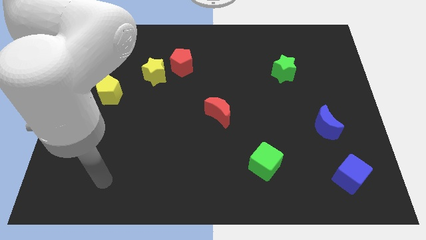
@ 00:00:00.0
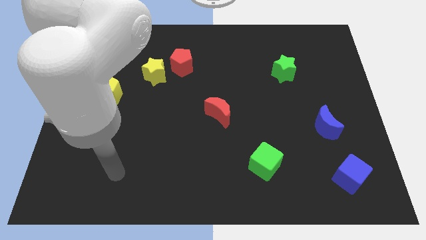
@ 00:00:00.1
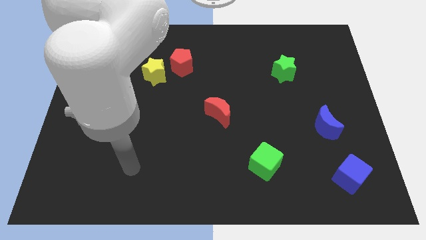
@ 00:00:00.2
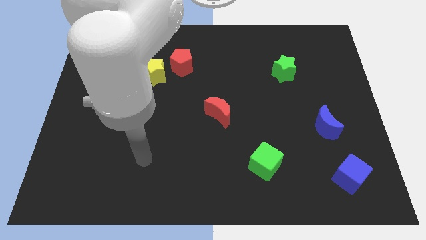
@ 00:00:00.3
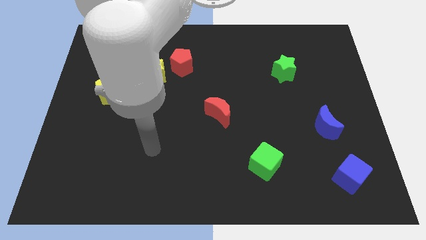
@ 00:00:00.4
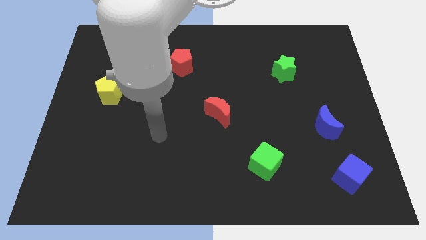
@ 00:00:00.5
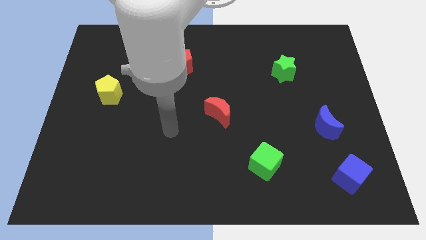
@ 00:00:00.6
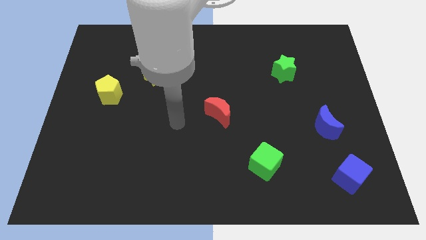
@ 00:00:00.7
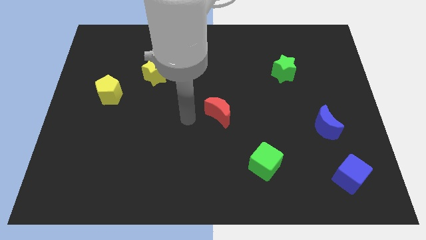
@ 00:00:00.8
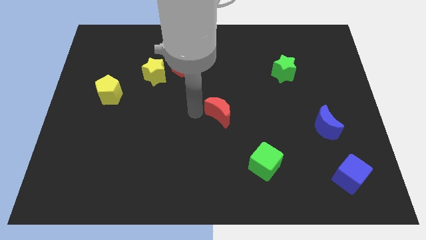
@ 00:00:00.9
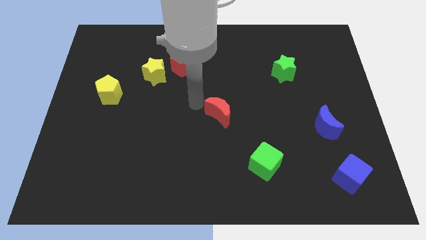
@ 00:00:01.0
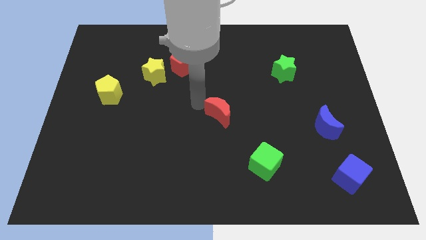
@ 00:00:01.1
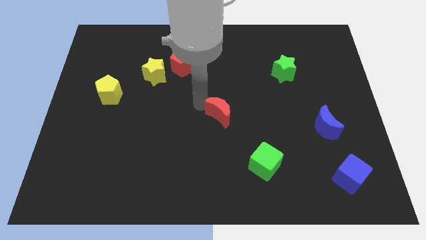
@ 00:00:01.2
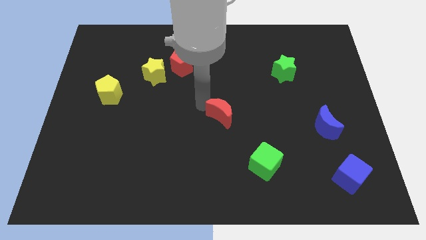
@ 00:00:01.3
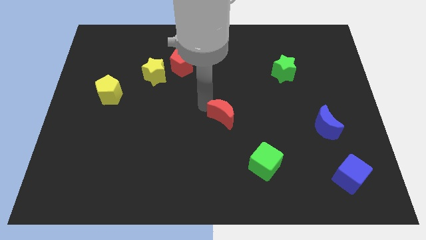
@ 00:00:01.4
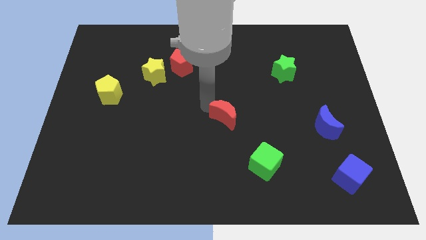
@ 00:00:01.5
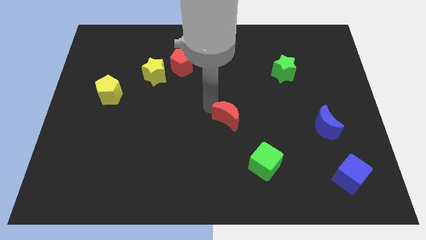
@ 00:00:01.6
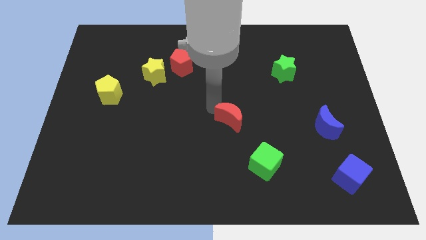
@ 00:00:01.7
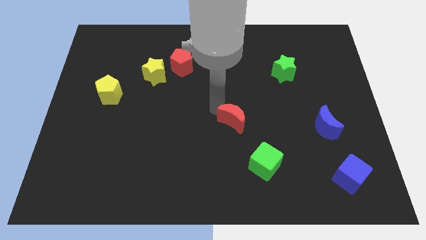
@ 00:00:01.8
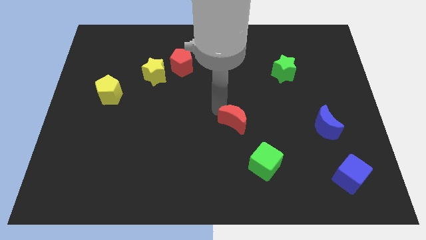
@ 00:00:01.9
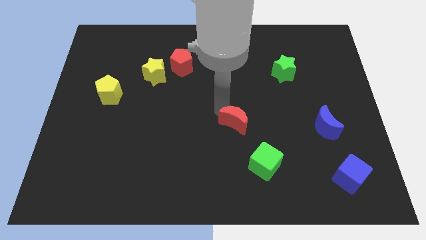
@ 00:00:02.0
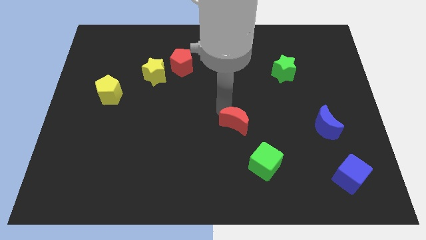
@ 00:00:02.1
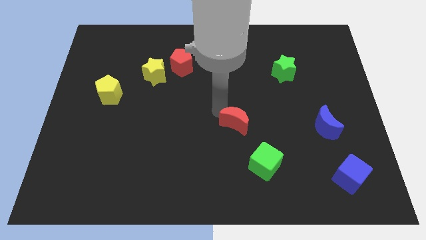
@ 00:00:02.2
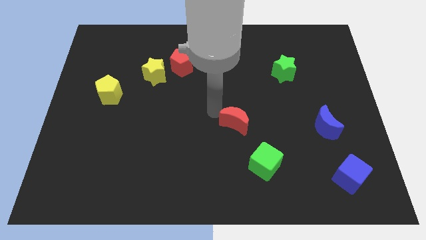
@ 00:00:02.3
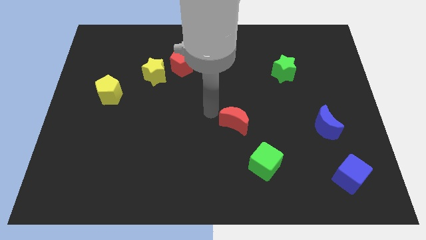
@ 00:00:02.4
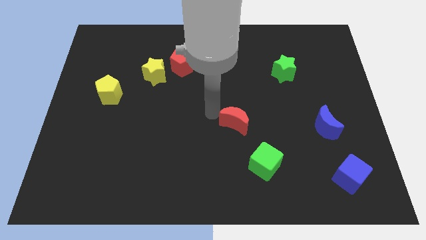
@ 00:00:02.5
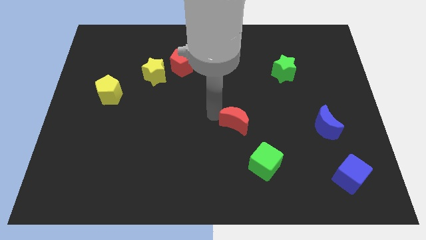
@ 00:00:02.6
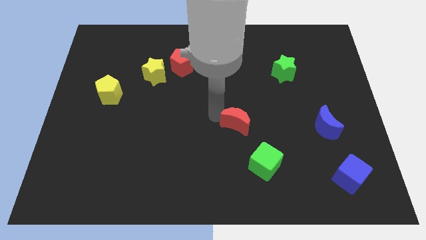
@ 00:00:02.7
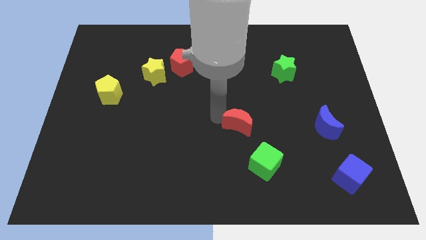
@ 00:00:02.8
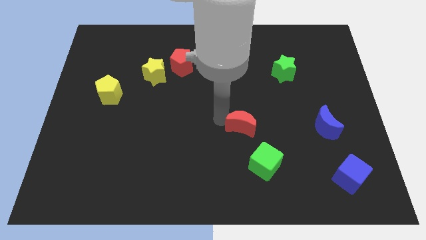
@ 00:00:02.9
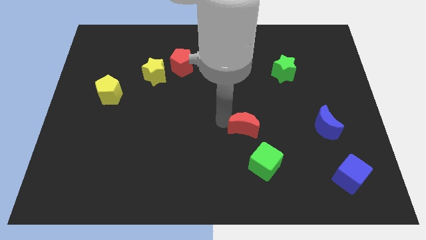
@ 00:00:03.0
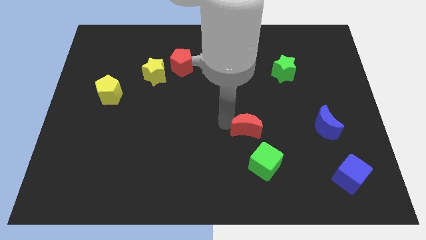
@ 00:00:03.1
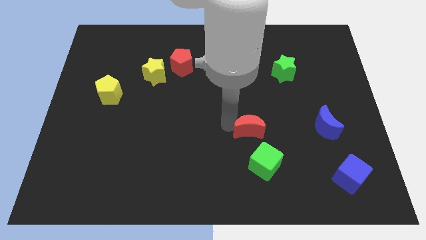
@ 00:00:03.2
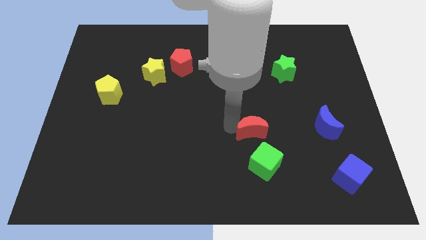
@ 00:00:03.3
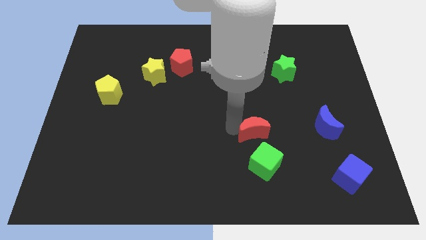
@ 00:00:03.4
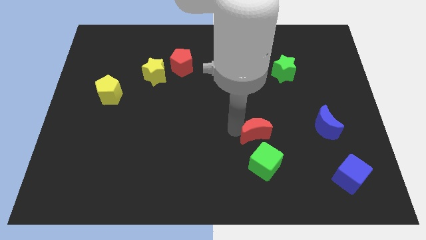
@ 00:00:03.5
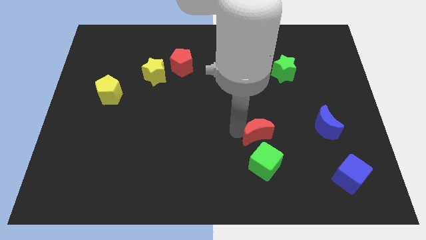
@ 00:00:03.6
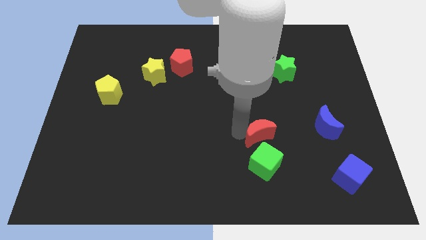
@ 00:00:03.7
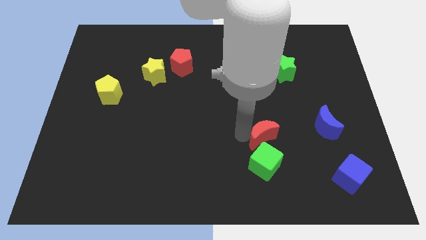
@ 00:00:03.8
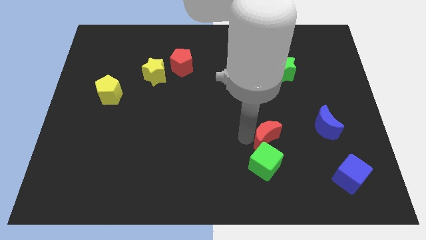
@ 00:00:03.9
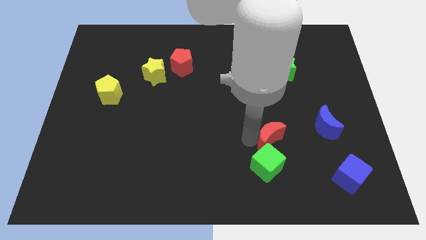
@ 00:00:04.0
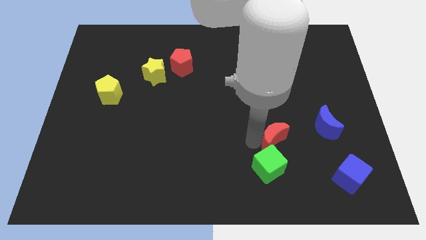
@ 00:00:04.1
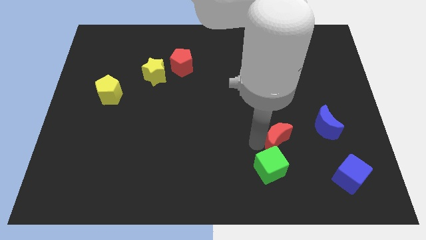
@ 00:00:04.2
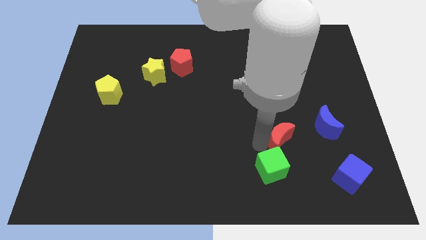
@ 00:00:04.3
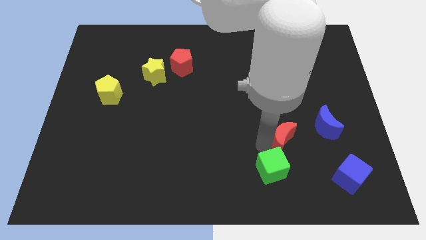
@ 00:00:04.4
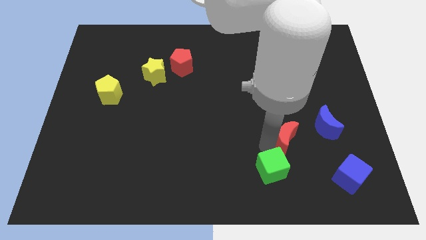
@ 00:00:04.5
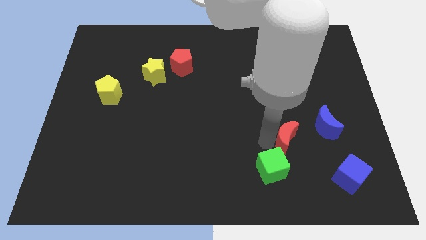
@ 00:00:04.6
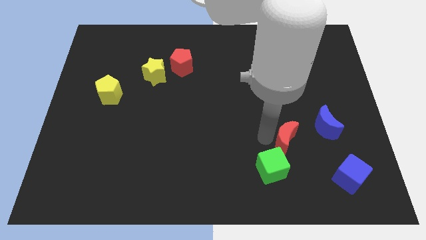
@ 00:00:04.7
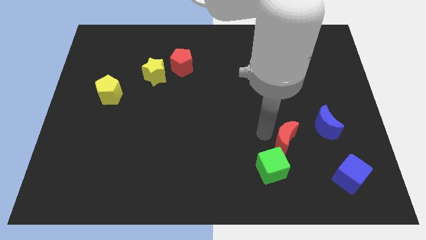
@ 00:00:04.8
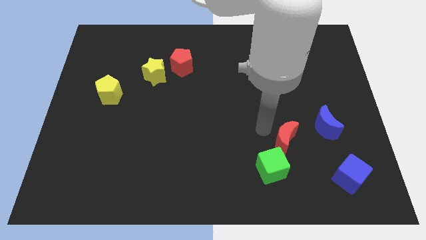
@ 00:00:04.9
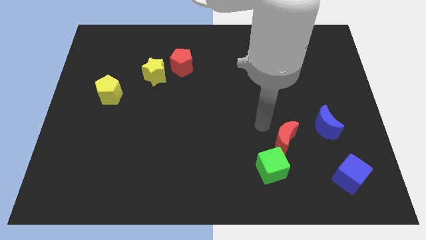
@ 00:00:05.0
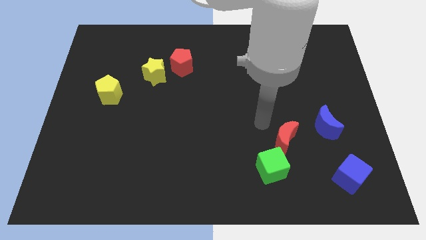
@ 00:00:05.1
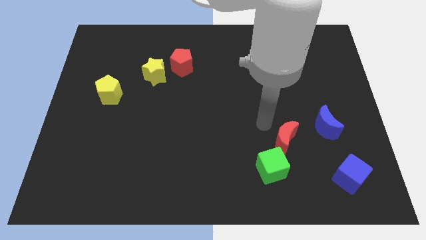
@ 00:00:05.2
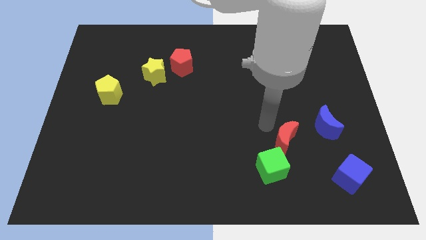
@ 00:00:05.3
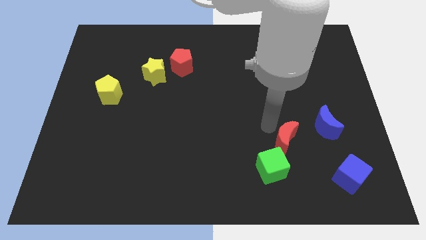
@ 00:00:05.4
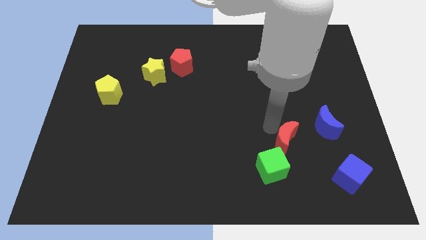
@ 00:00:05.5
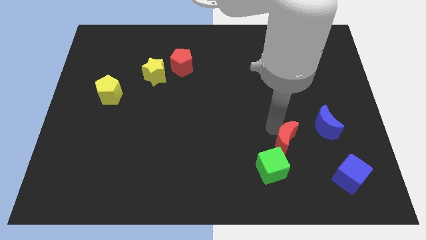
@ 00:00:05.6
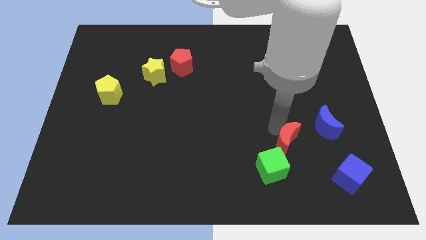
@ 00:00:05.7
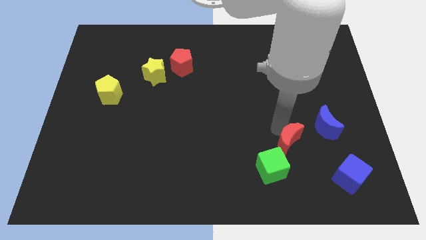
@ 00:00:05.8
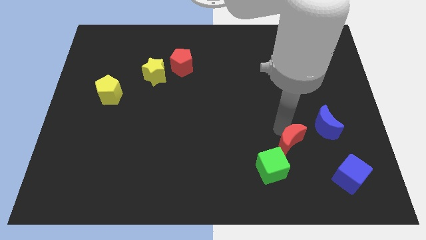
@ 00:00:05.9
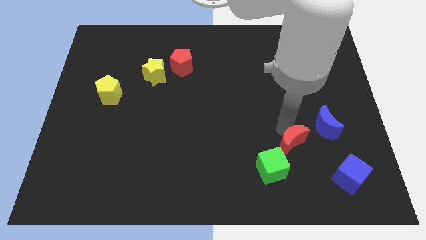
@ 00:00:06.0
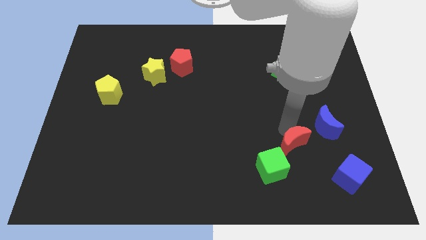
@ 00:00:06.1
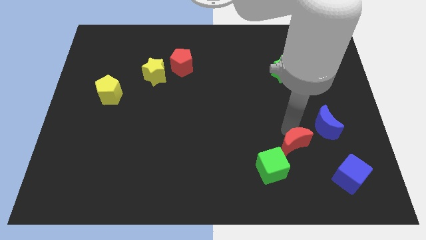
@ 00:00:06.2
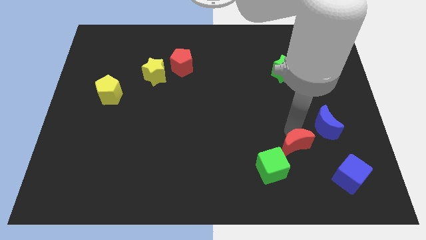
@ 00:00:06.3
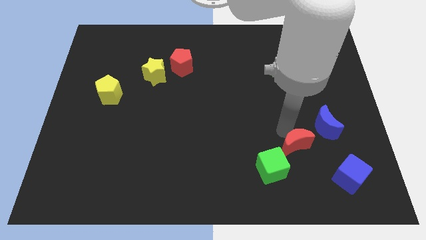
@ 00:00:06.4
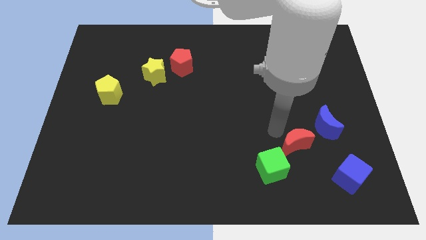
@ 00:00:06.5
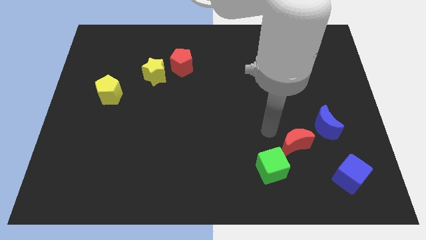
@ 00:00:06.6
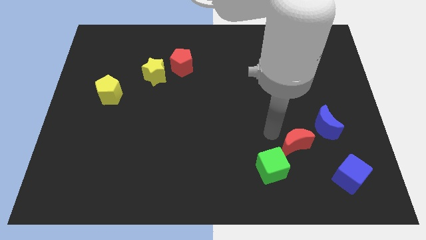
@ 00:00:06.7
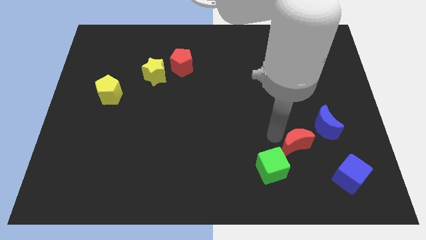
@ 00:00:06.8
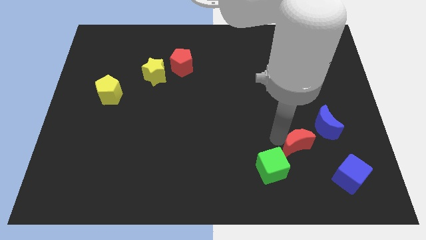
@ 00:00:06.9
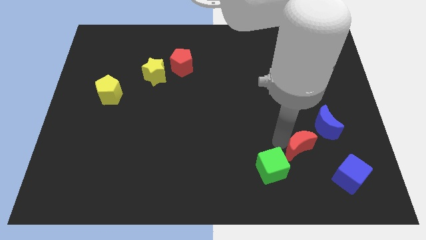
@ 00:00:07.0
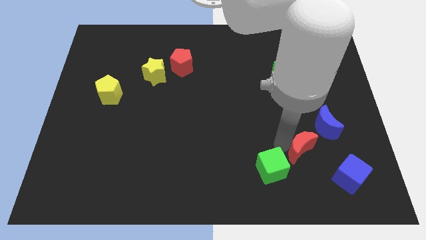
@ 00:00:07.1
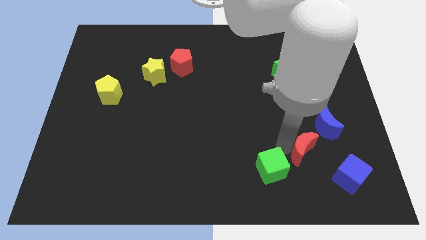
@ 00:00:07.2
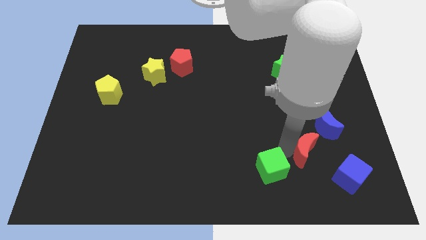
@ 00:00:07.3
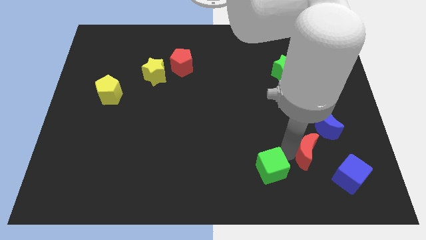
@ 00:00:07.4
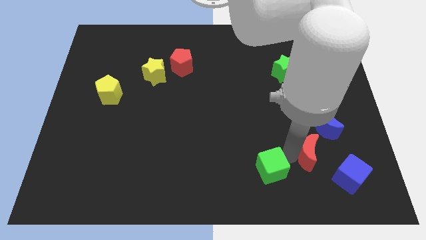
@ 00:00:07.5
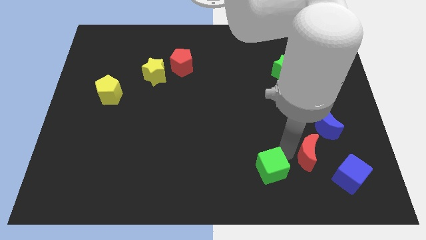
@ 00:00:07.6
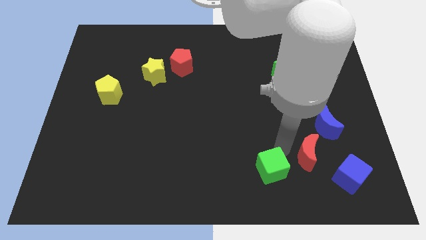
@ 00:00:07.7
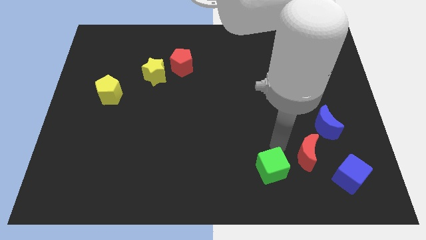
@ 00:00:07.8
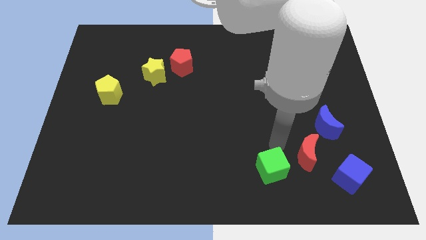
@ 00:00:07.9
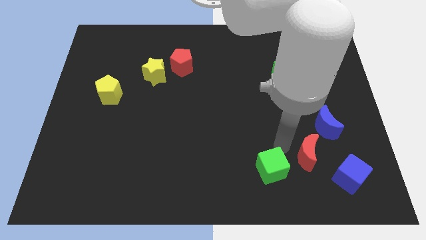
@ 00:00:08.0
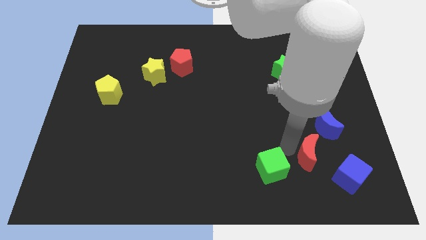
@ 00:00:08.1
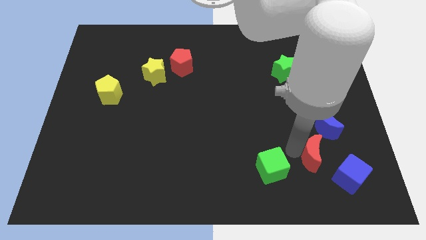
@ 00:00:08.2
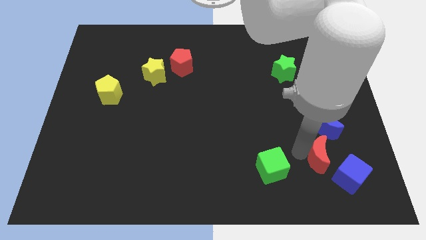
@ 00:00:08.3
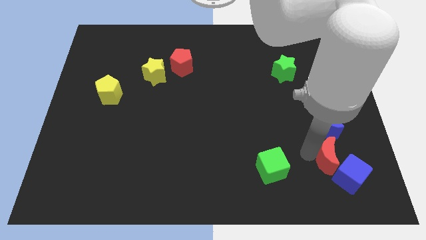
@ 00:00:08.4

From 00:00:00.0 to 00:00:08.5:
put the red moon next to the blue cube
